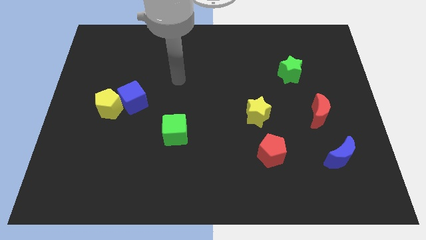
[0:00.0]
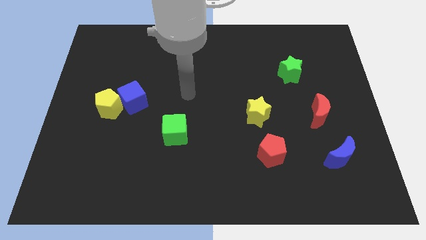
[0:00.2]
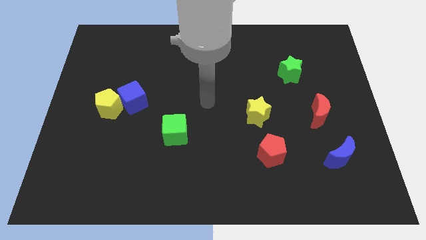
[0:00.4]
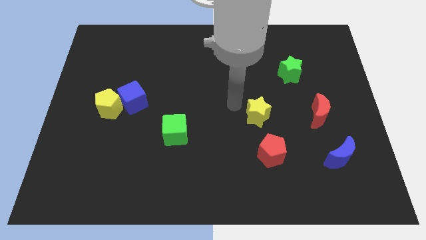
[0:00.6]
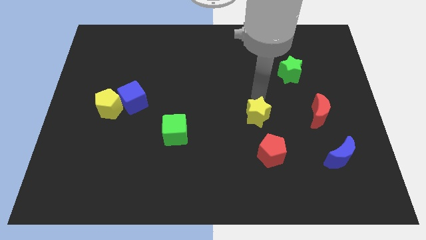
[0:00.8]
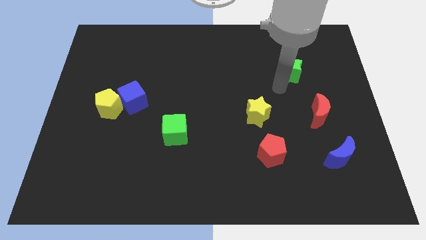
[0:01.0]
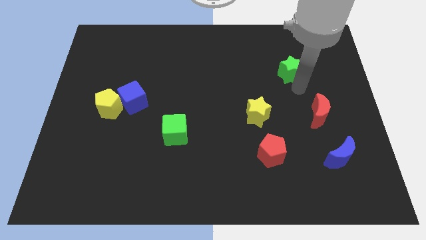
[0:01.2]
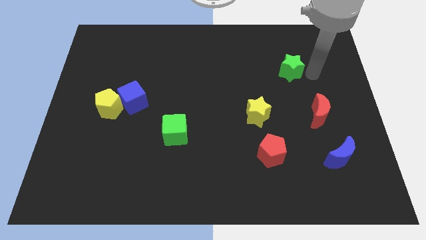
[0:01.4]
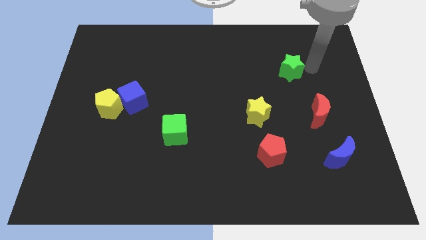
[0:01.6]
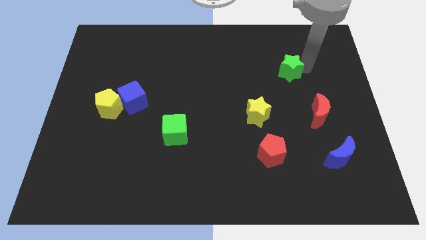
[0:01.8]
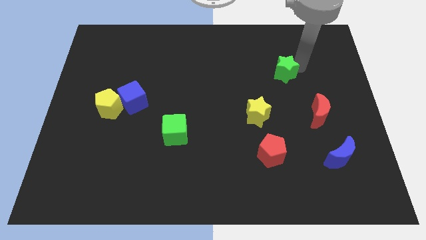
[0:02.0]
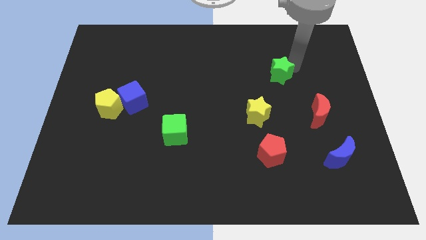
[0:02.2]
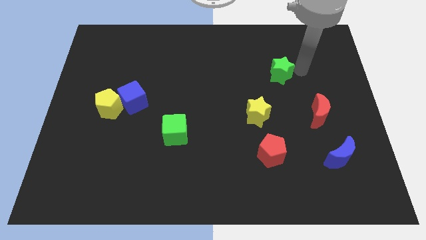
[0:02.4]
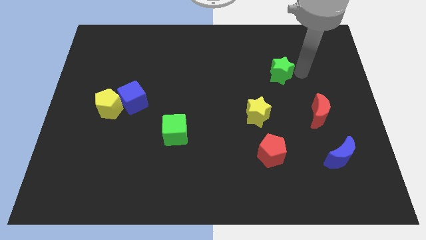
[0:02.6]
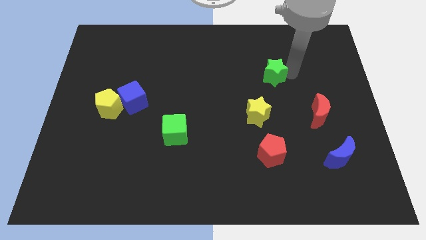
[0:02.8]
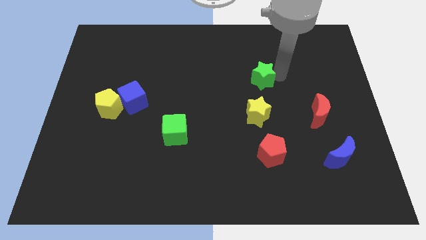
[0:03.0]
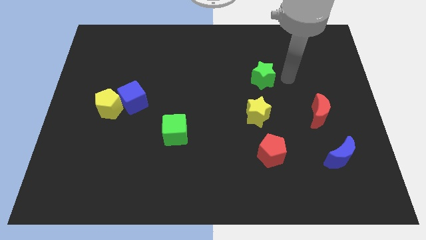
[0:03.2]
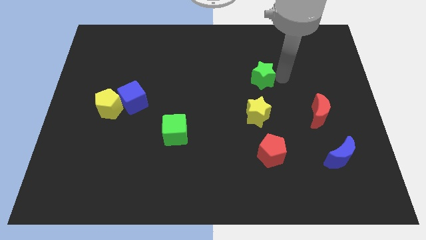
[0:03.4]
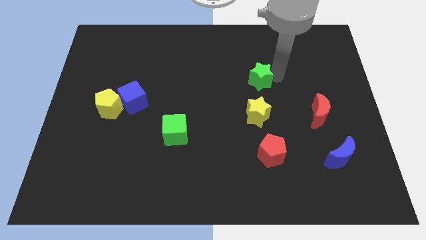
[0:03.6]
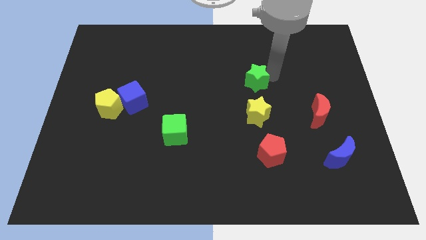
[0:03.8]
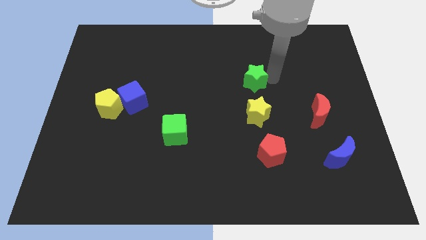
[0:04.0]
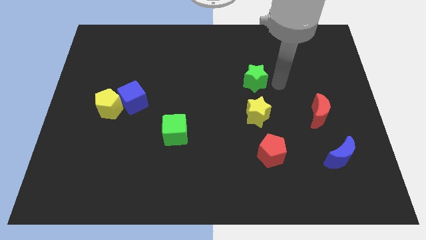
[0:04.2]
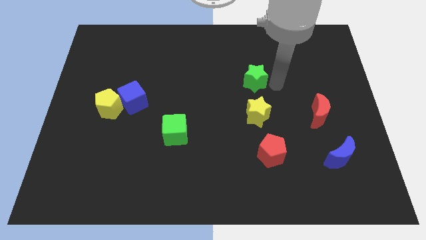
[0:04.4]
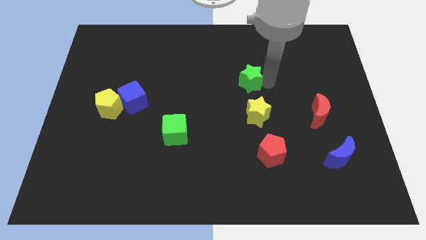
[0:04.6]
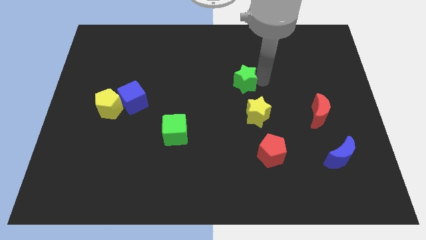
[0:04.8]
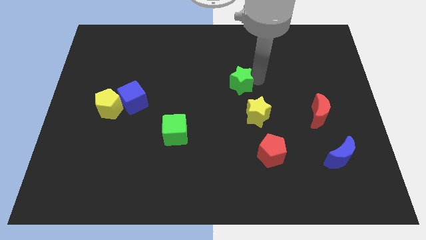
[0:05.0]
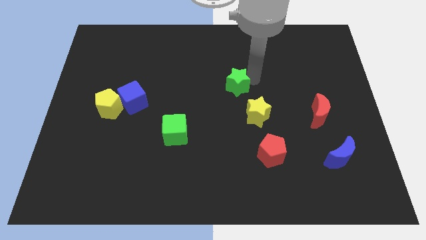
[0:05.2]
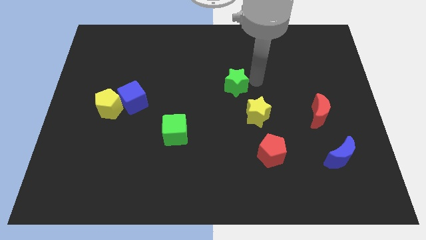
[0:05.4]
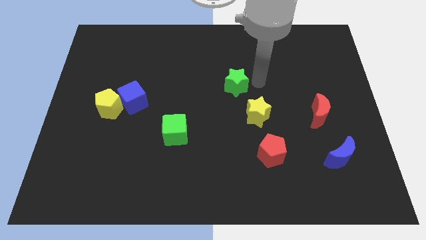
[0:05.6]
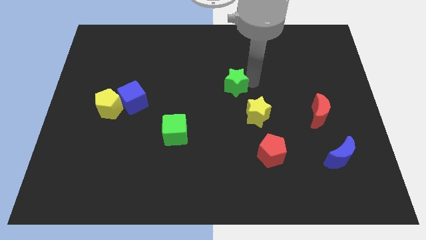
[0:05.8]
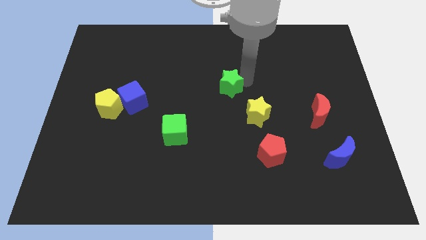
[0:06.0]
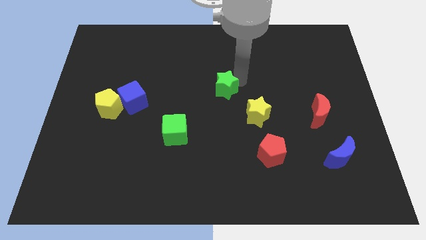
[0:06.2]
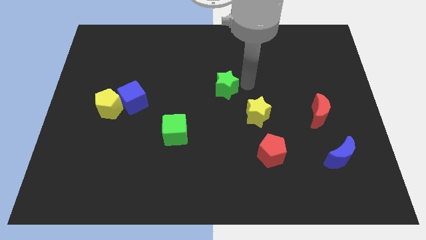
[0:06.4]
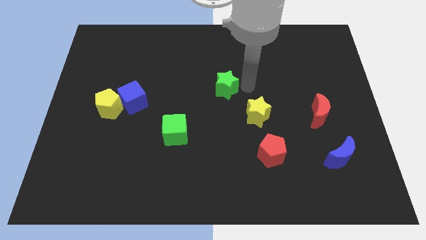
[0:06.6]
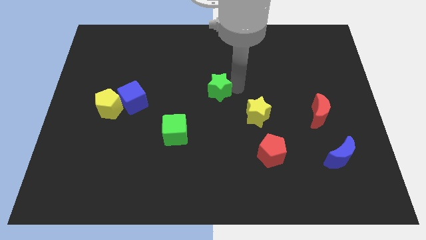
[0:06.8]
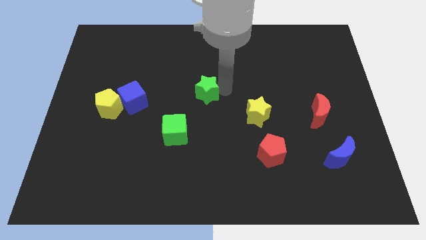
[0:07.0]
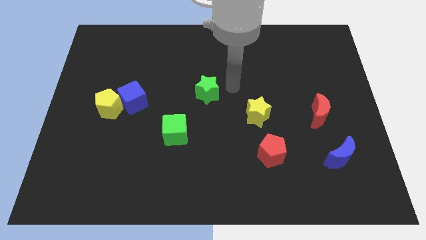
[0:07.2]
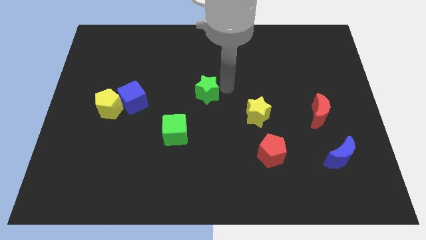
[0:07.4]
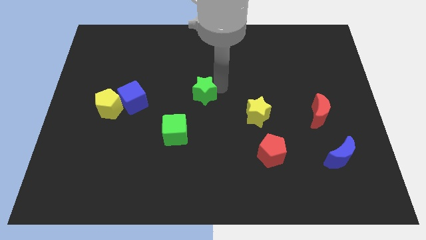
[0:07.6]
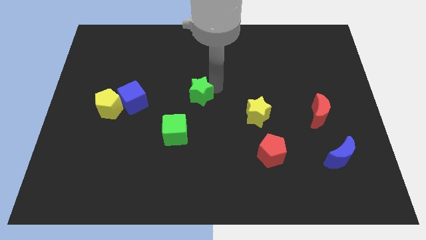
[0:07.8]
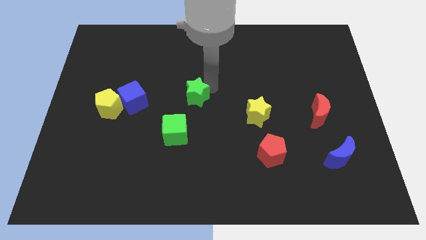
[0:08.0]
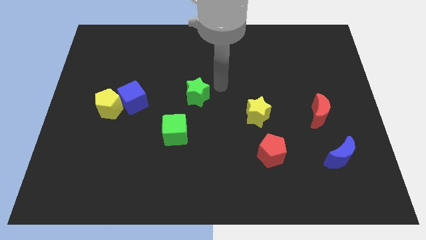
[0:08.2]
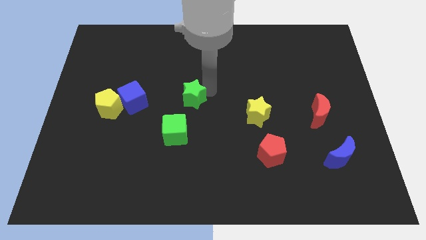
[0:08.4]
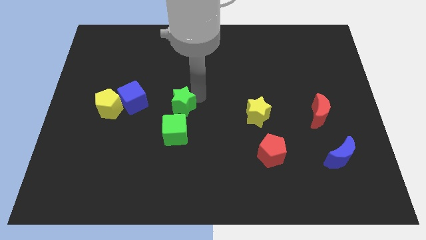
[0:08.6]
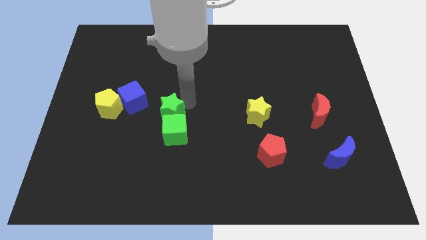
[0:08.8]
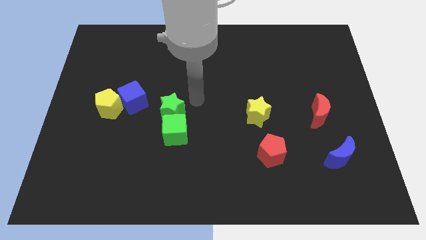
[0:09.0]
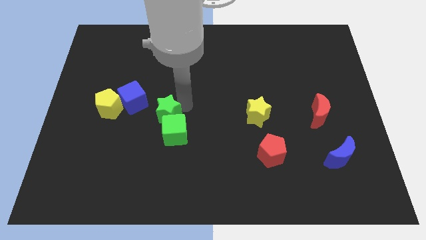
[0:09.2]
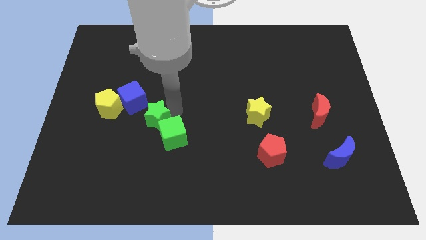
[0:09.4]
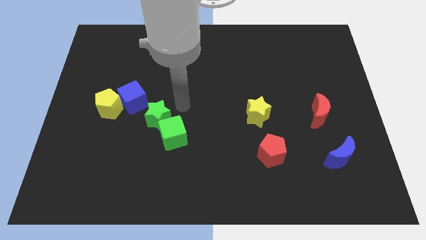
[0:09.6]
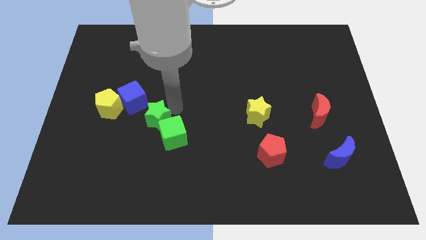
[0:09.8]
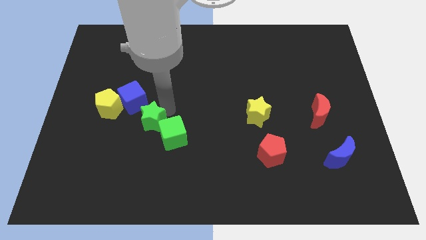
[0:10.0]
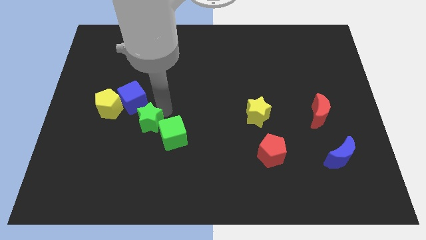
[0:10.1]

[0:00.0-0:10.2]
move the green star to the bottom side of the blue cube

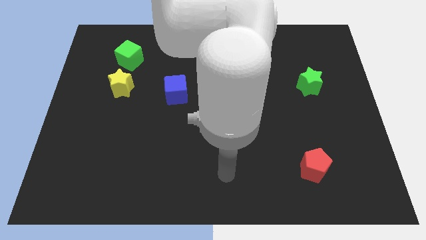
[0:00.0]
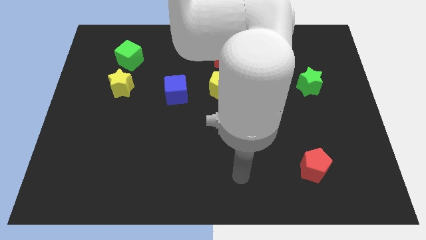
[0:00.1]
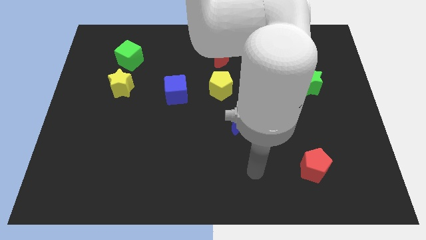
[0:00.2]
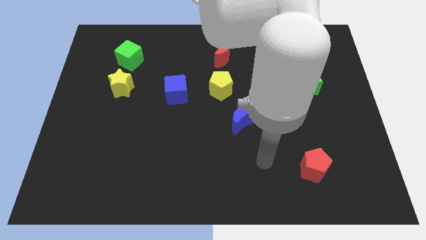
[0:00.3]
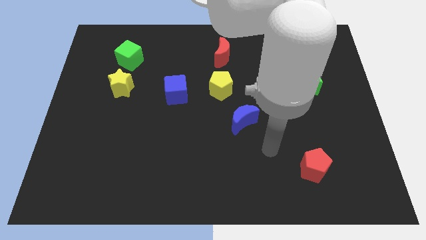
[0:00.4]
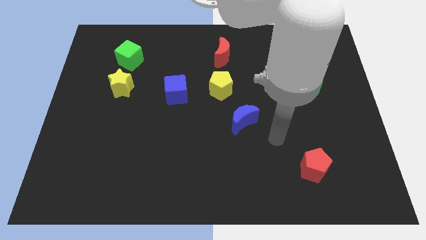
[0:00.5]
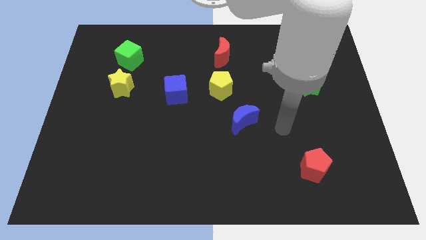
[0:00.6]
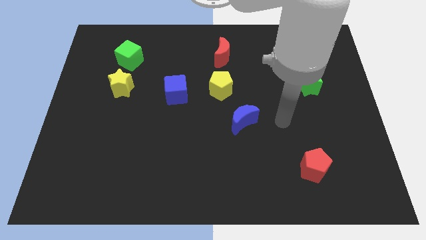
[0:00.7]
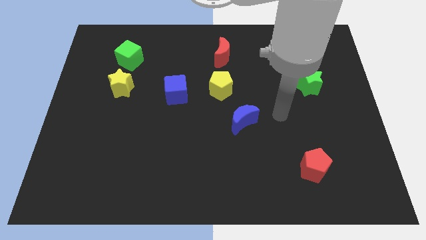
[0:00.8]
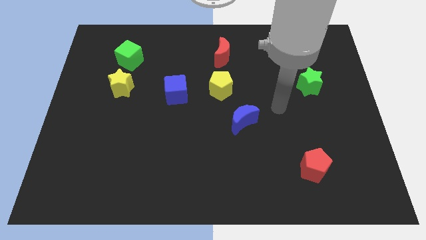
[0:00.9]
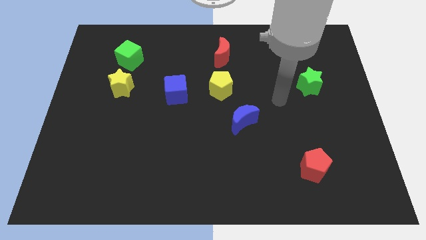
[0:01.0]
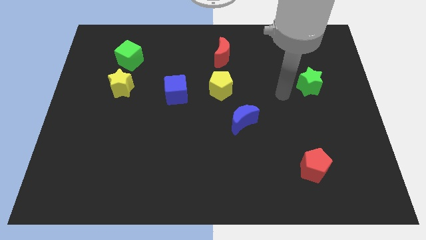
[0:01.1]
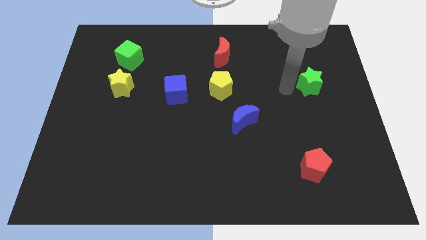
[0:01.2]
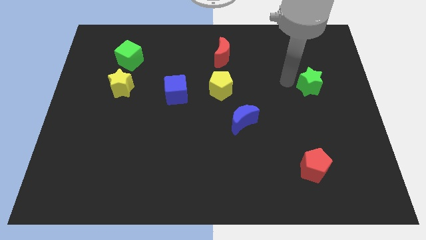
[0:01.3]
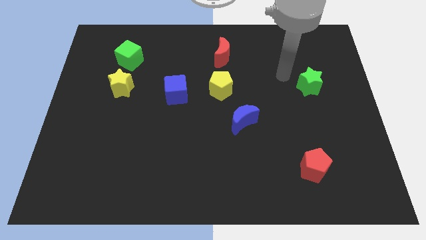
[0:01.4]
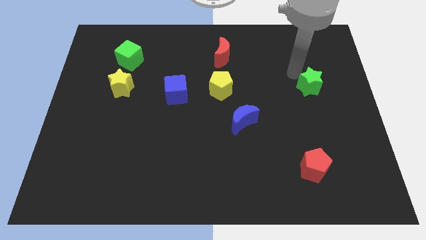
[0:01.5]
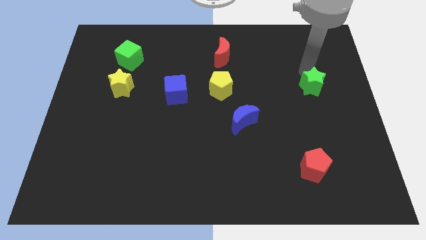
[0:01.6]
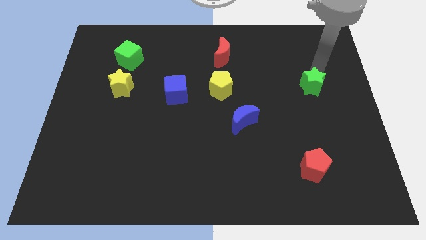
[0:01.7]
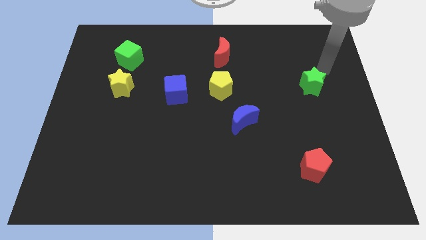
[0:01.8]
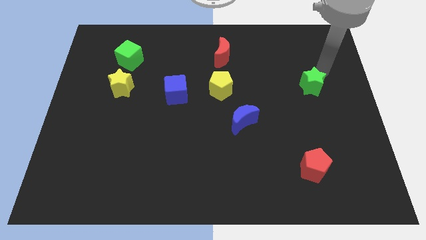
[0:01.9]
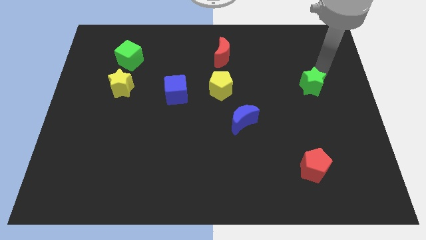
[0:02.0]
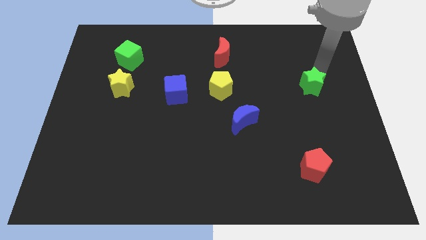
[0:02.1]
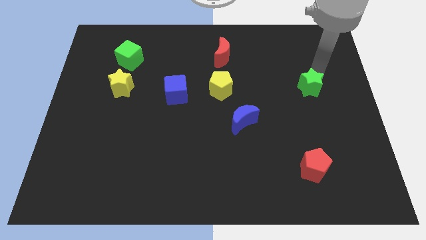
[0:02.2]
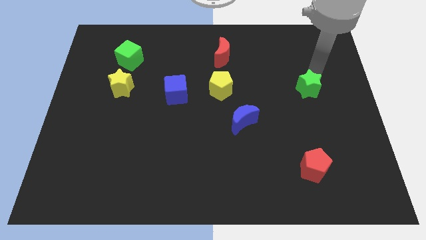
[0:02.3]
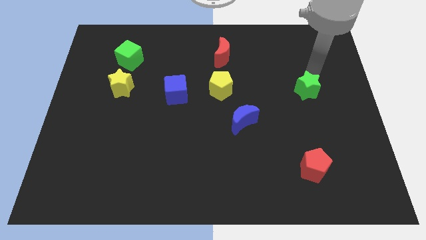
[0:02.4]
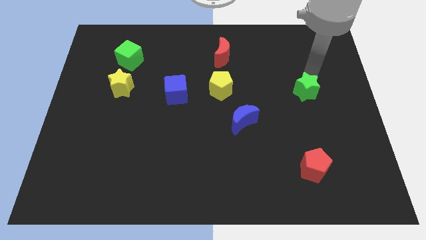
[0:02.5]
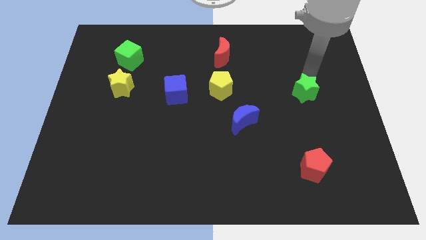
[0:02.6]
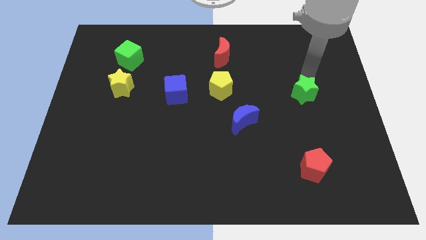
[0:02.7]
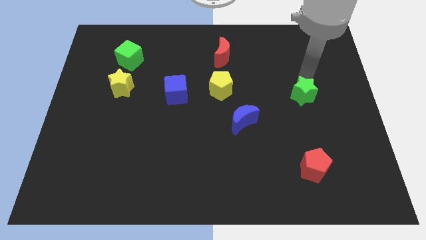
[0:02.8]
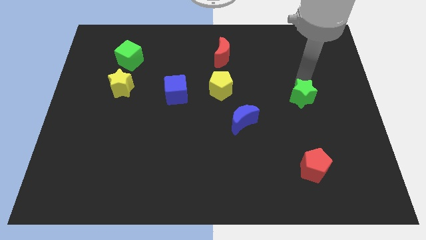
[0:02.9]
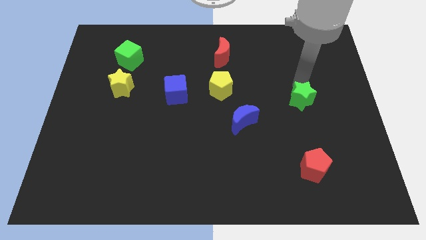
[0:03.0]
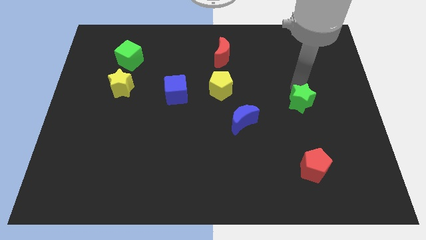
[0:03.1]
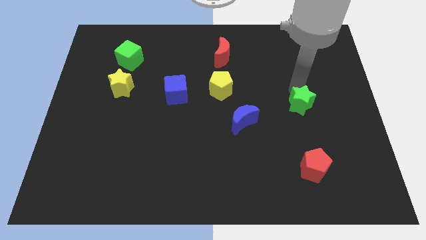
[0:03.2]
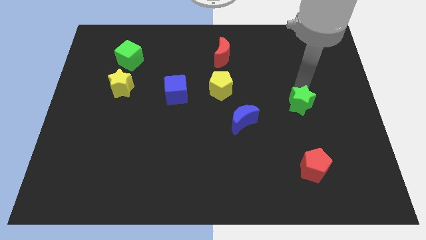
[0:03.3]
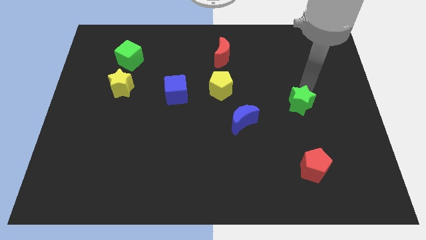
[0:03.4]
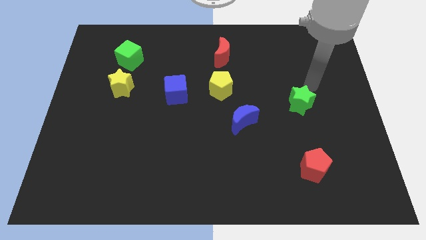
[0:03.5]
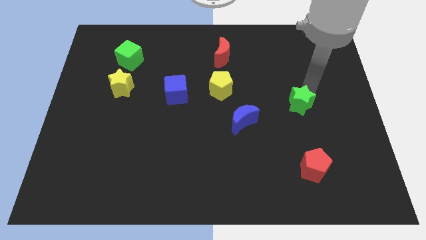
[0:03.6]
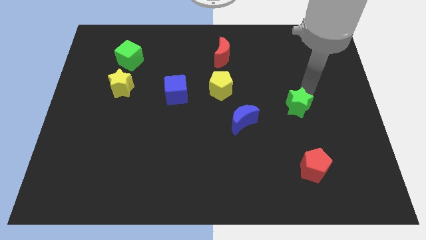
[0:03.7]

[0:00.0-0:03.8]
slide the green star right of the blue moon
